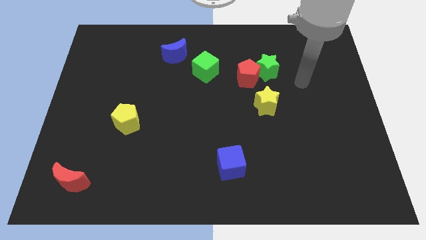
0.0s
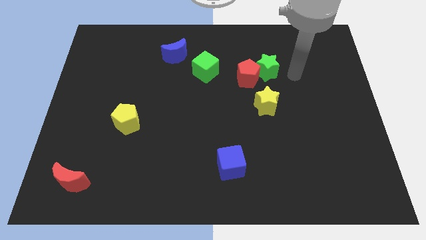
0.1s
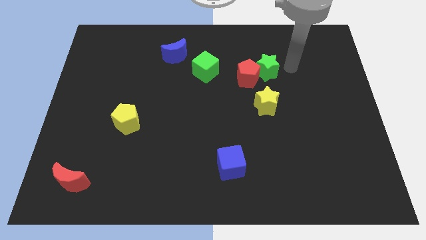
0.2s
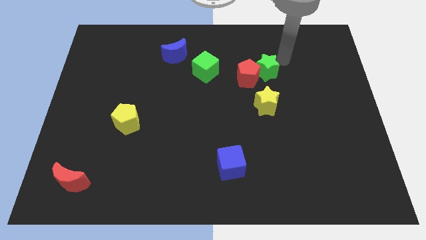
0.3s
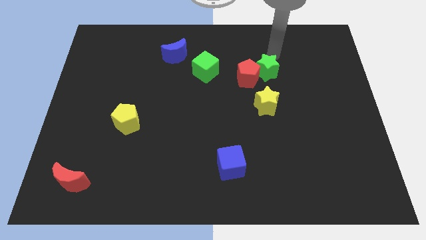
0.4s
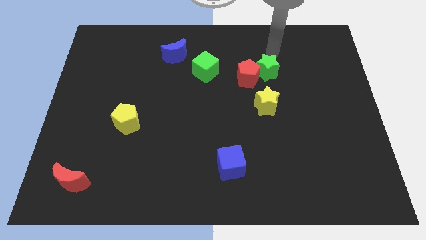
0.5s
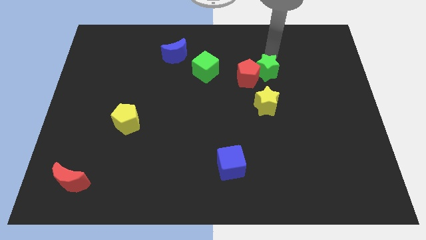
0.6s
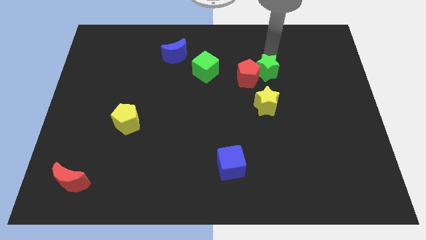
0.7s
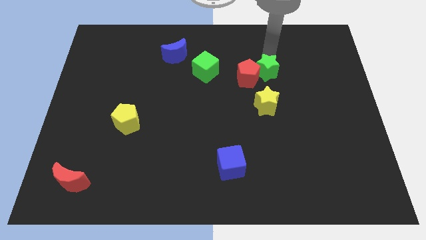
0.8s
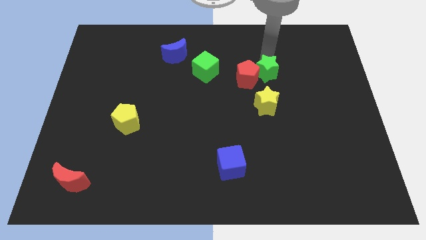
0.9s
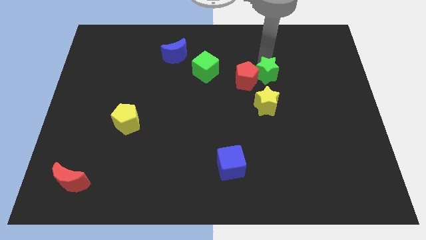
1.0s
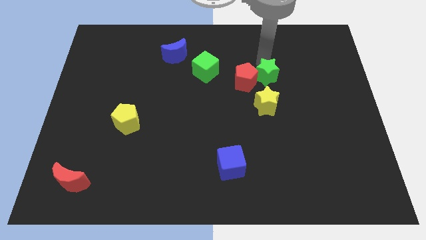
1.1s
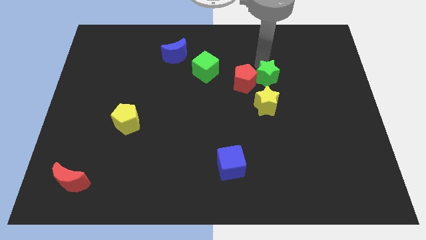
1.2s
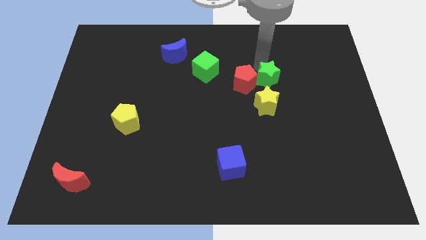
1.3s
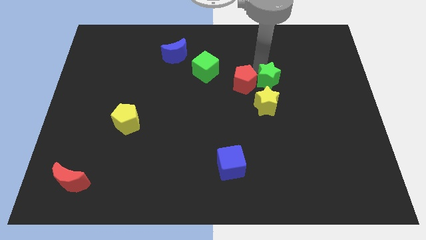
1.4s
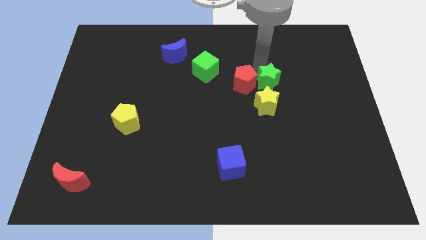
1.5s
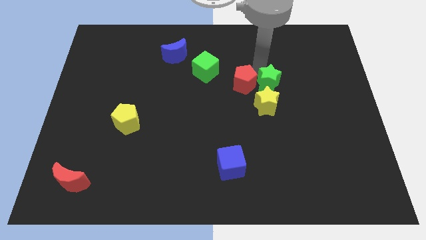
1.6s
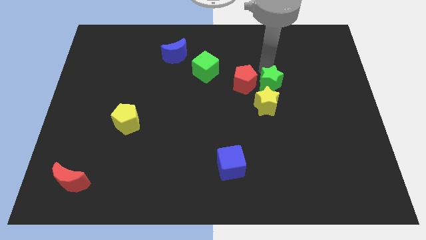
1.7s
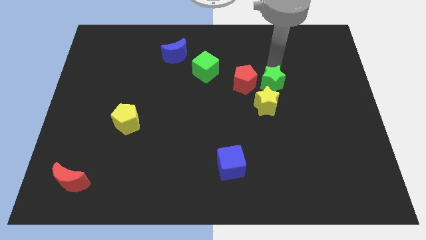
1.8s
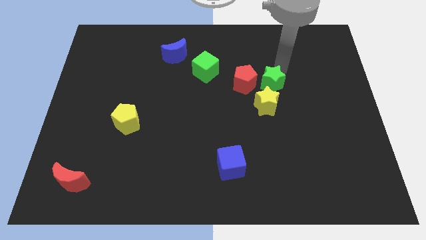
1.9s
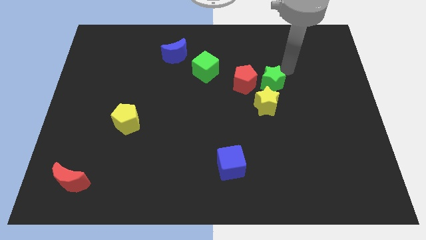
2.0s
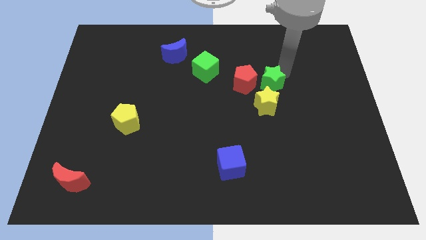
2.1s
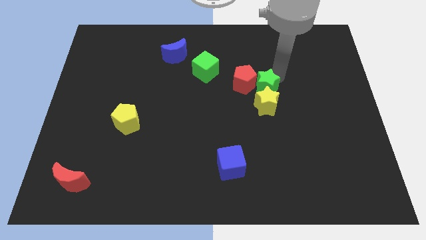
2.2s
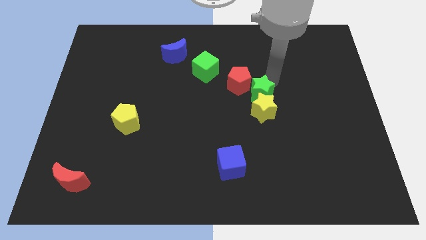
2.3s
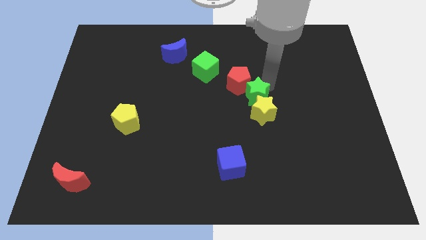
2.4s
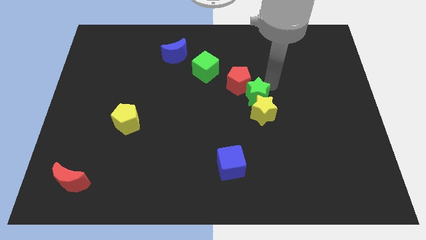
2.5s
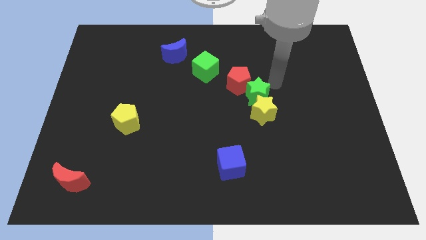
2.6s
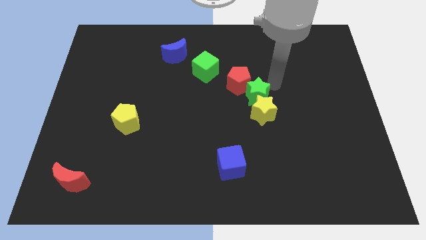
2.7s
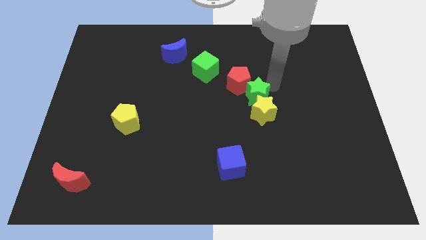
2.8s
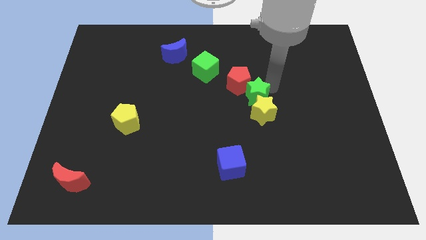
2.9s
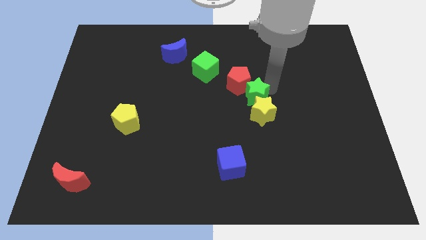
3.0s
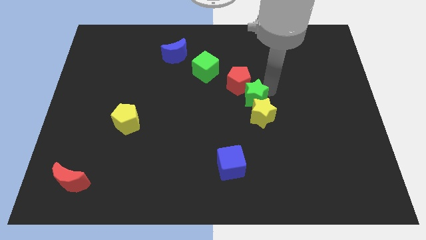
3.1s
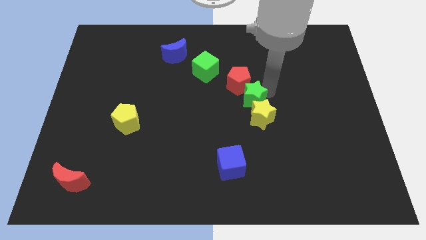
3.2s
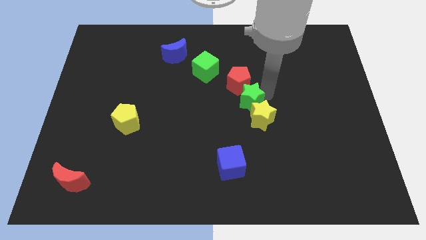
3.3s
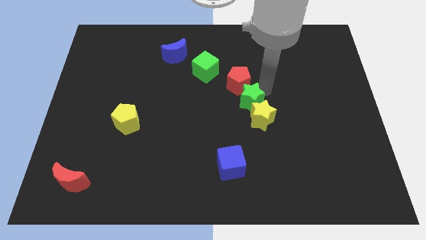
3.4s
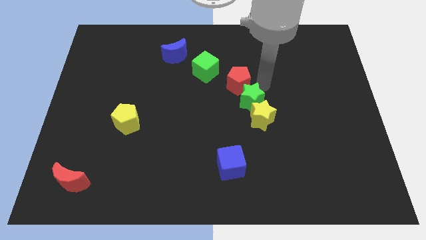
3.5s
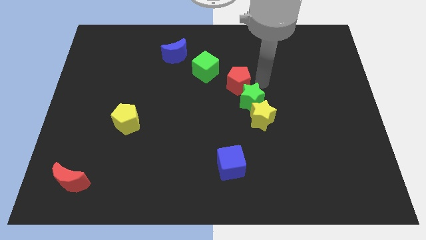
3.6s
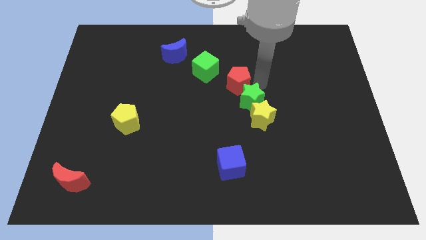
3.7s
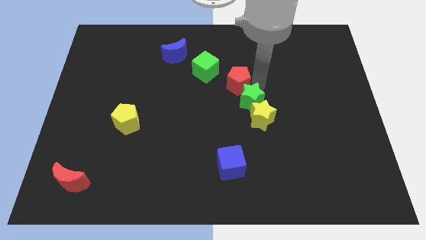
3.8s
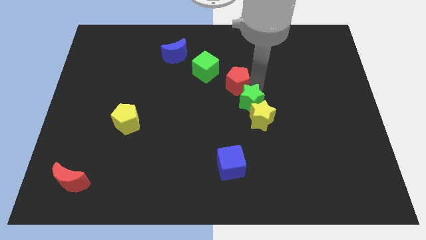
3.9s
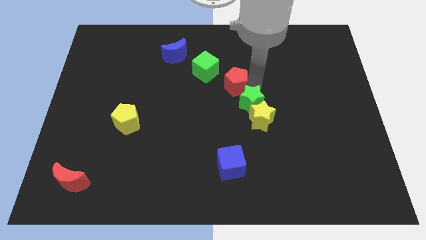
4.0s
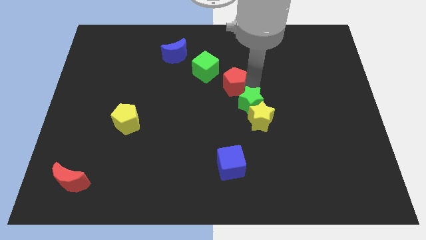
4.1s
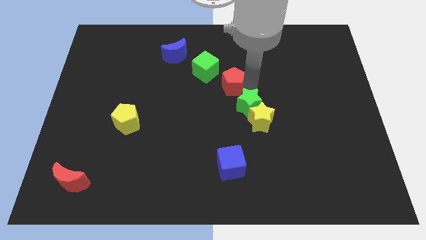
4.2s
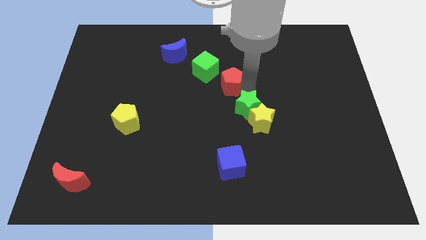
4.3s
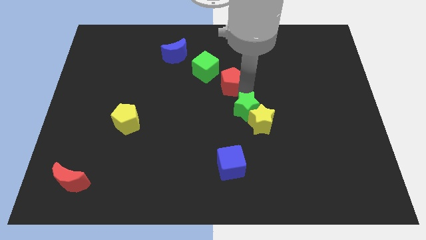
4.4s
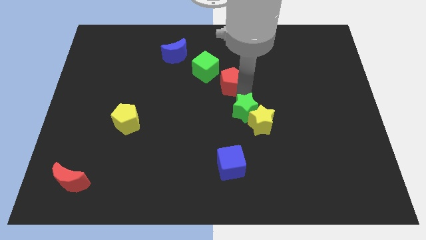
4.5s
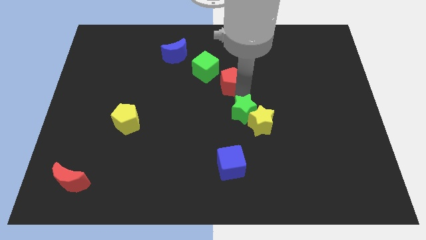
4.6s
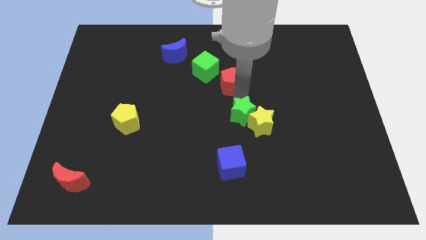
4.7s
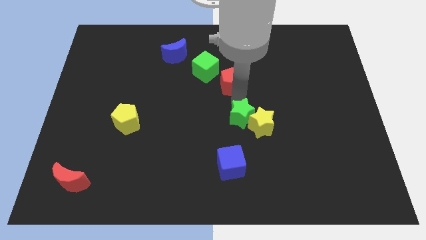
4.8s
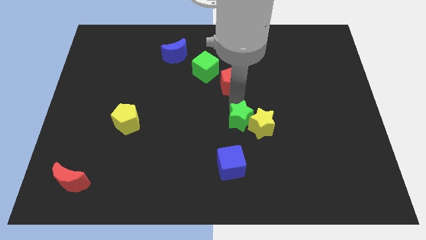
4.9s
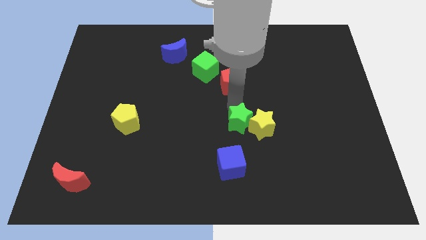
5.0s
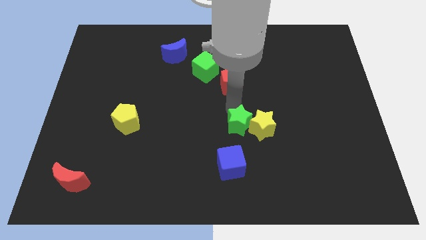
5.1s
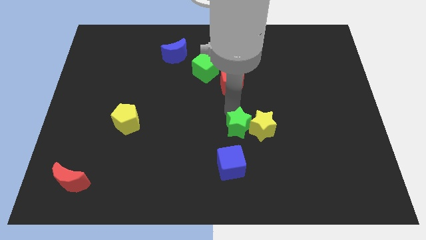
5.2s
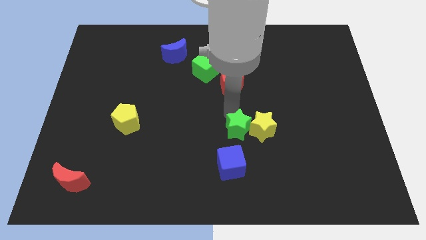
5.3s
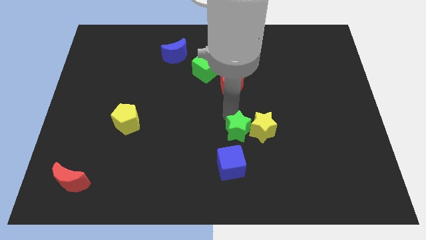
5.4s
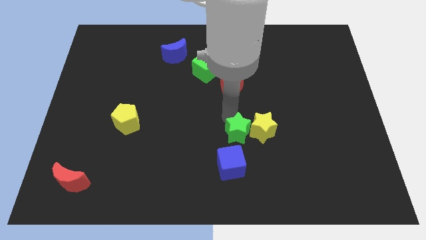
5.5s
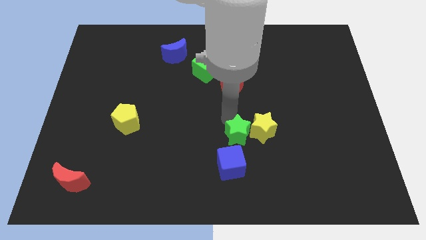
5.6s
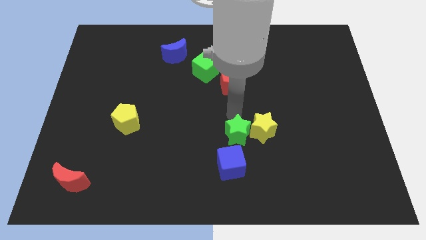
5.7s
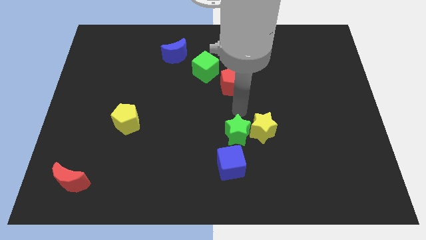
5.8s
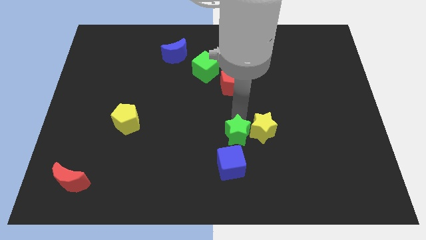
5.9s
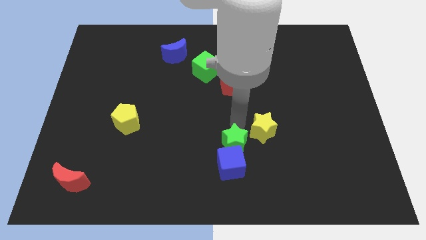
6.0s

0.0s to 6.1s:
slide the green star to the blue cube
